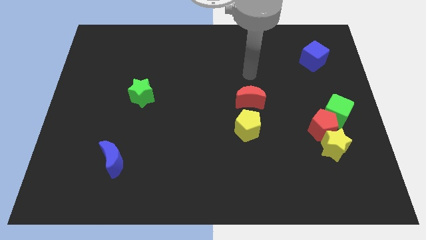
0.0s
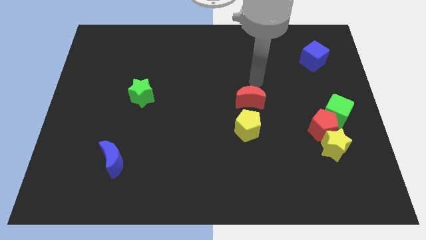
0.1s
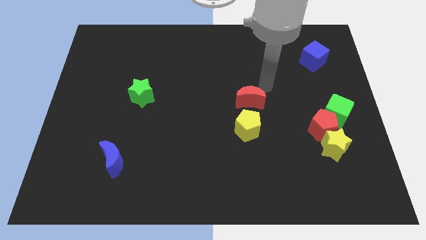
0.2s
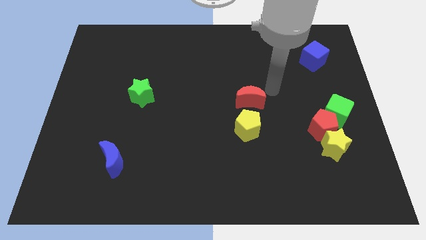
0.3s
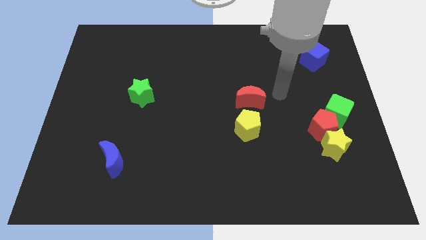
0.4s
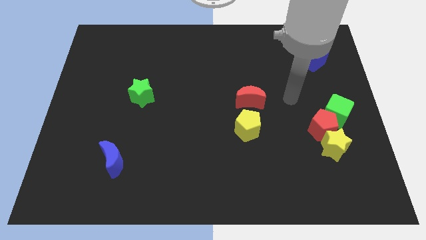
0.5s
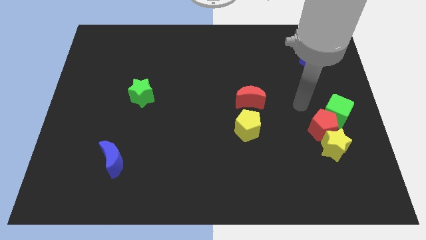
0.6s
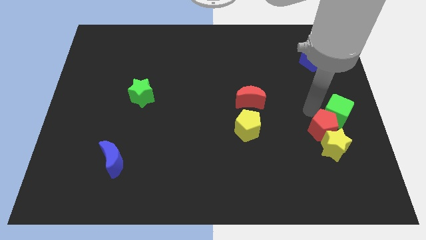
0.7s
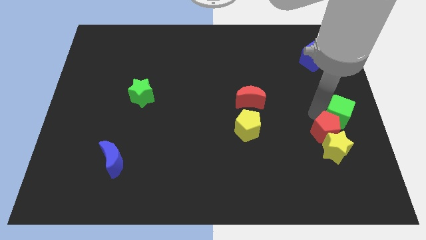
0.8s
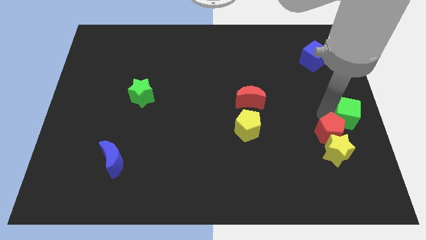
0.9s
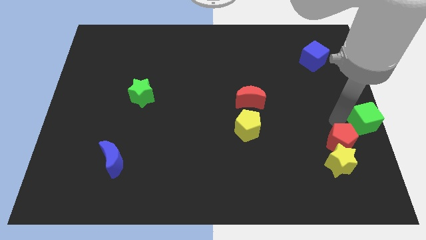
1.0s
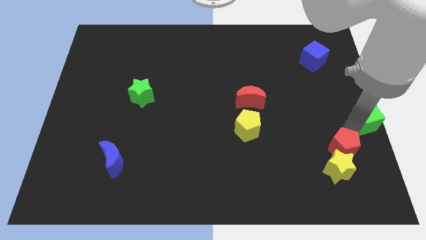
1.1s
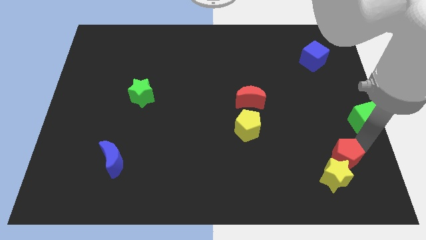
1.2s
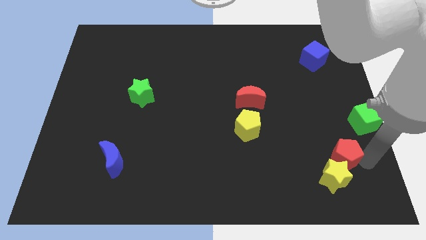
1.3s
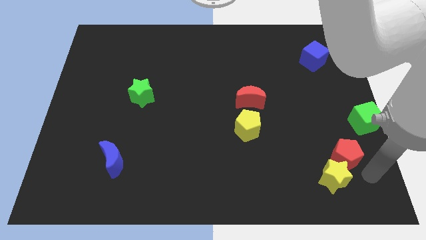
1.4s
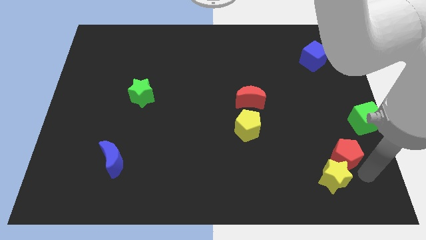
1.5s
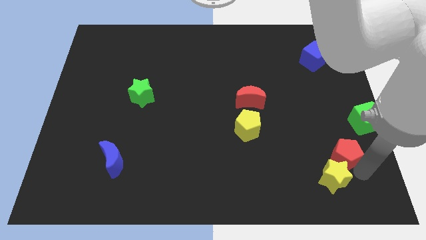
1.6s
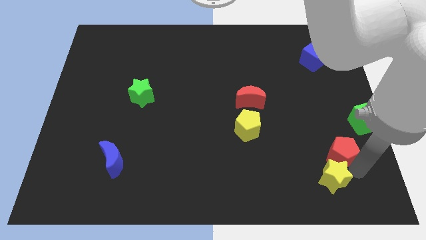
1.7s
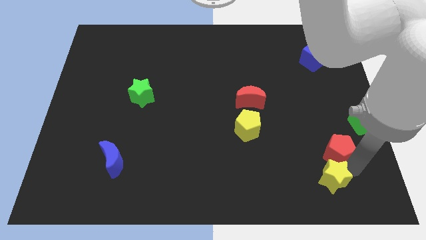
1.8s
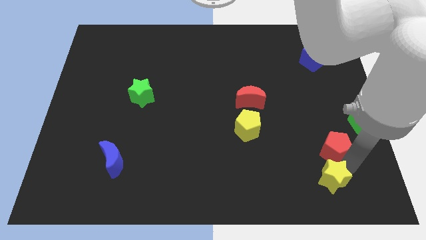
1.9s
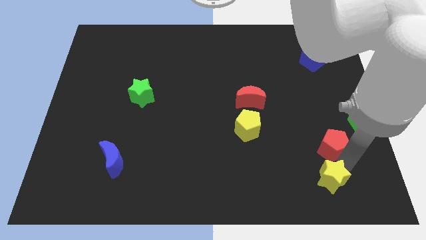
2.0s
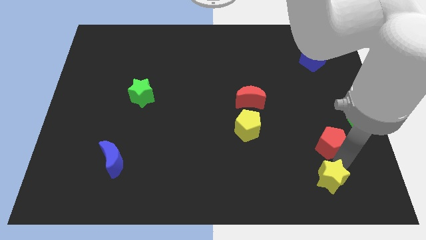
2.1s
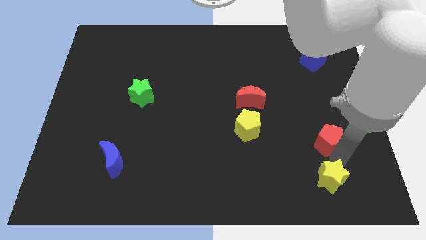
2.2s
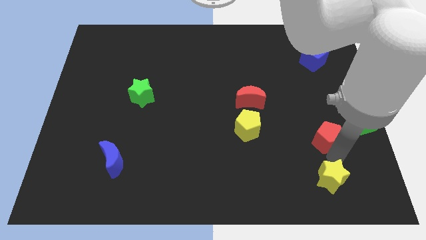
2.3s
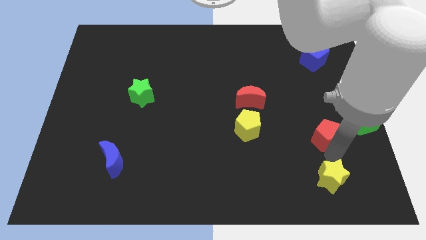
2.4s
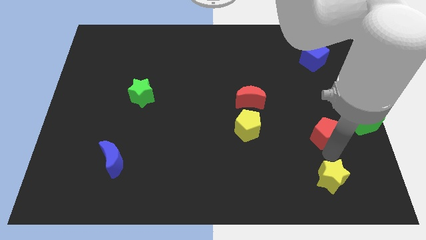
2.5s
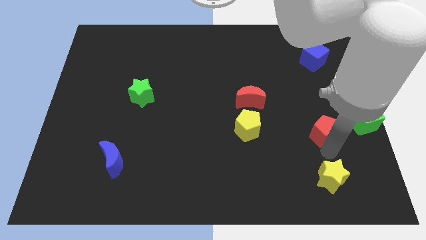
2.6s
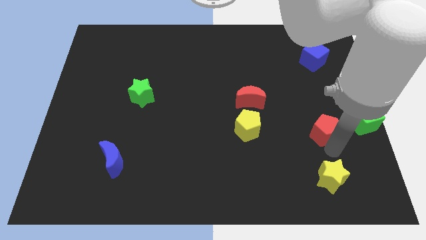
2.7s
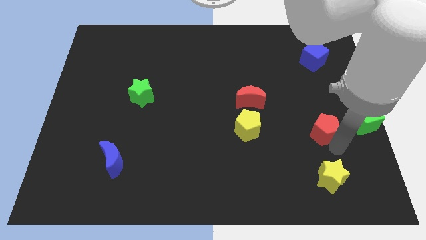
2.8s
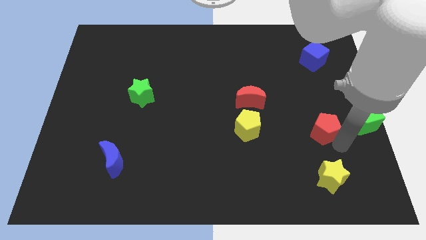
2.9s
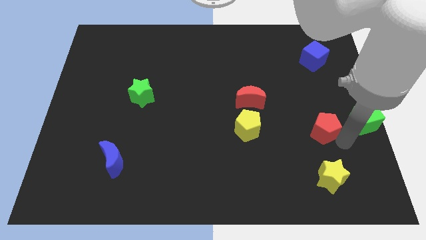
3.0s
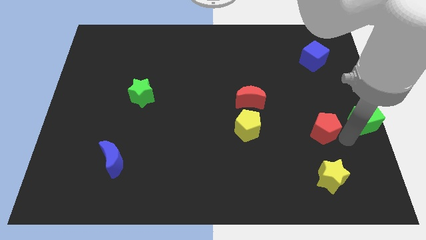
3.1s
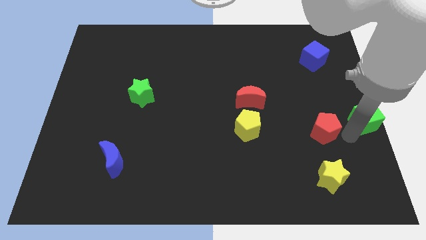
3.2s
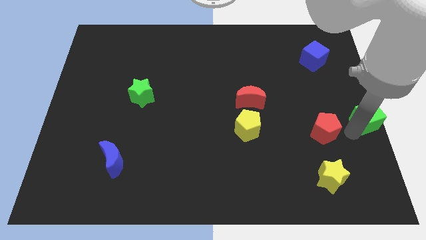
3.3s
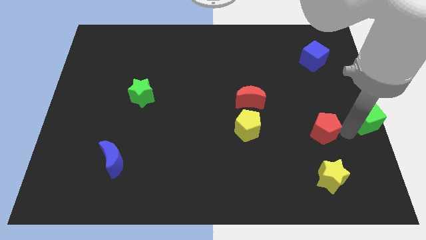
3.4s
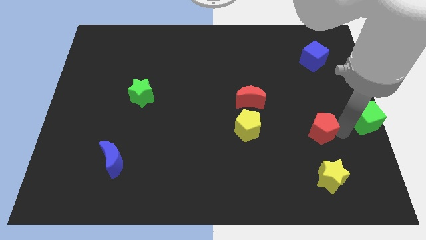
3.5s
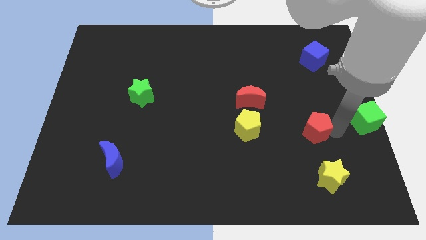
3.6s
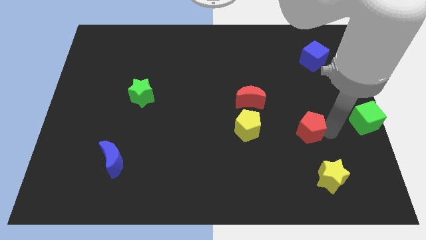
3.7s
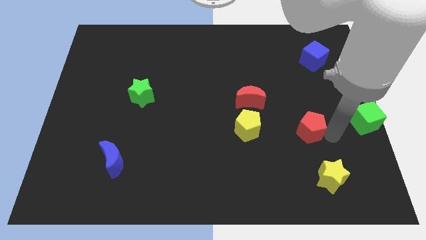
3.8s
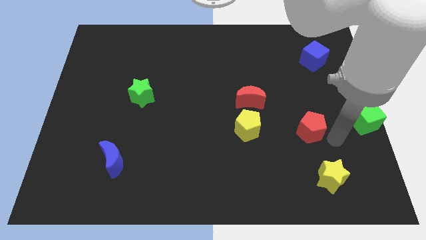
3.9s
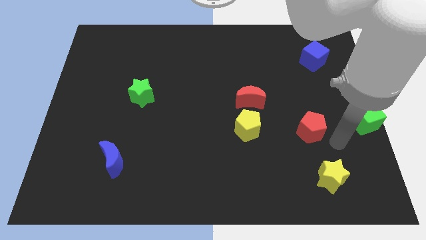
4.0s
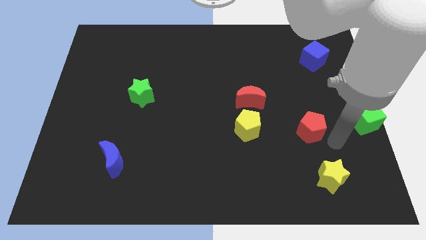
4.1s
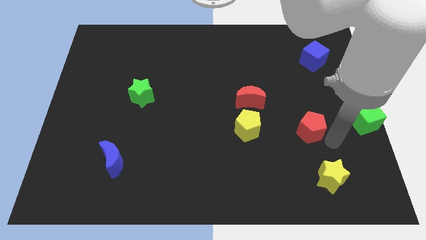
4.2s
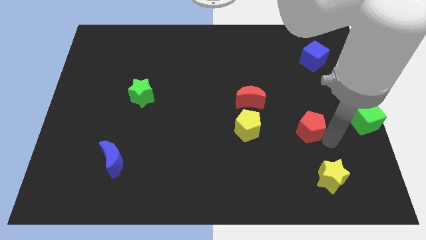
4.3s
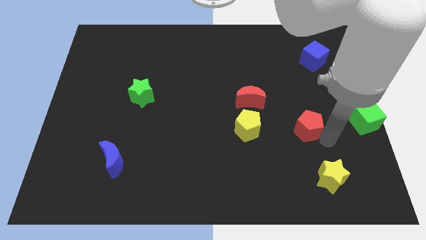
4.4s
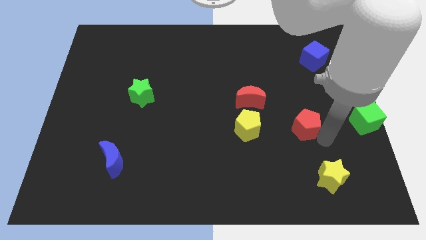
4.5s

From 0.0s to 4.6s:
pull the red pentagon apart from the yellow star and green cube

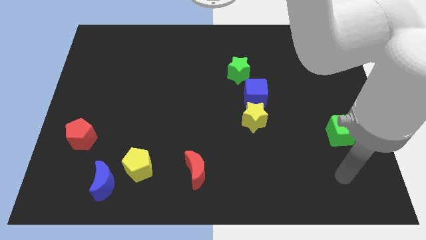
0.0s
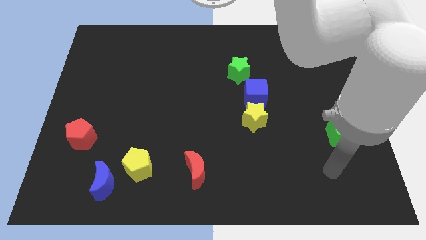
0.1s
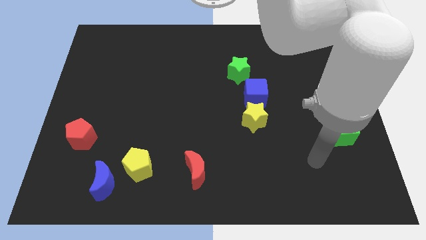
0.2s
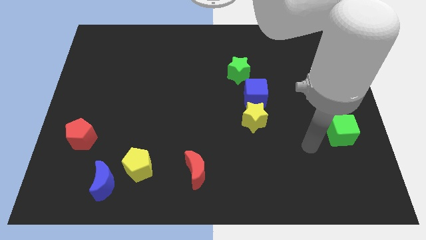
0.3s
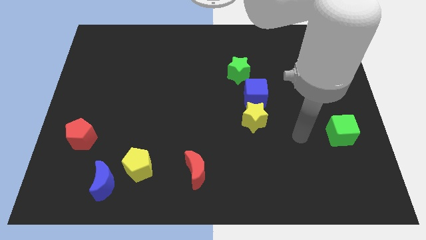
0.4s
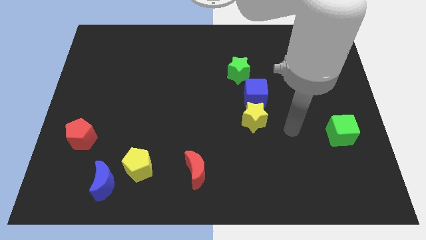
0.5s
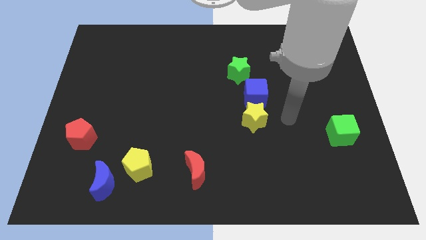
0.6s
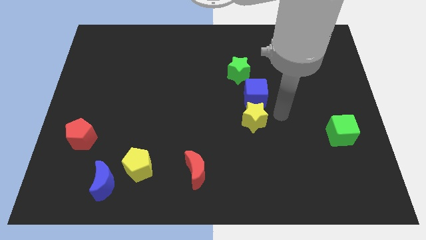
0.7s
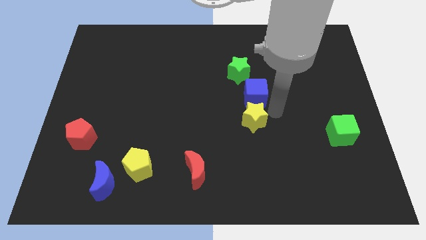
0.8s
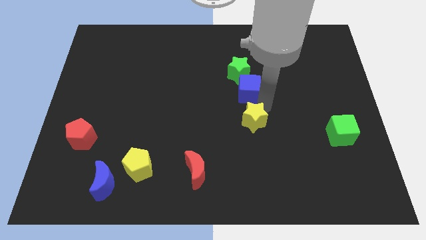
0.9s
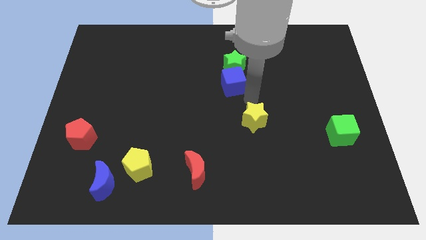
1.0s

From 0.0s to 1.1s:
separate the yellow star from the blue cube

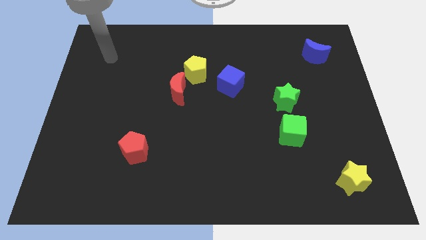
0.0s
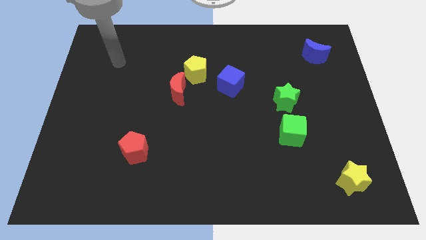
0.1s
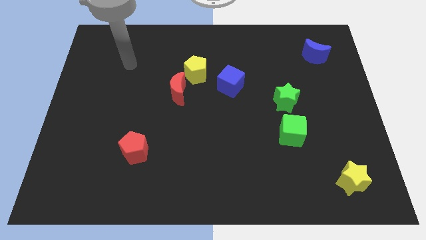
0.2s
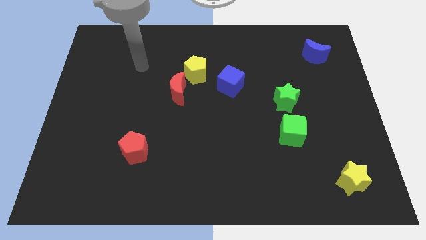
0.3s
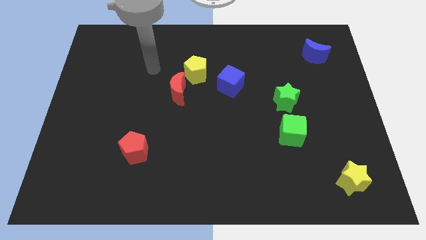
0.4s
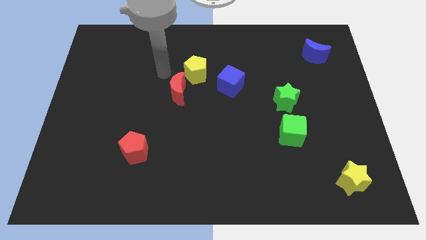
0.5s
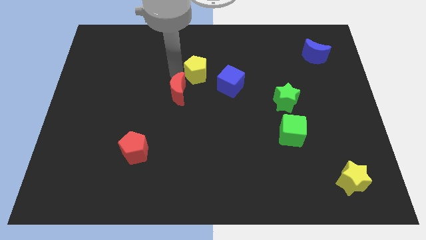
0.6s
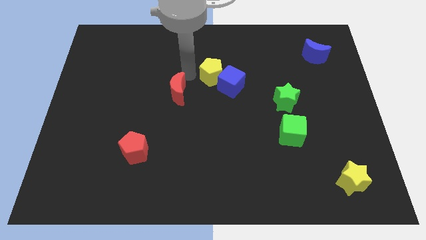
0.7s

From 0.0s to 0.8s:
separate the red moon from the yellow pentagon

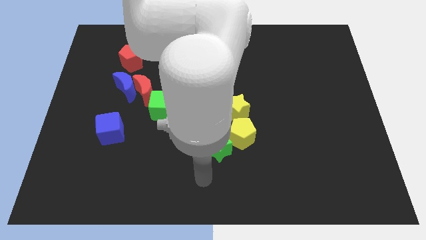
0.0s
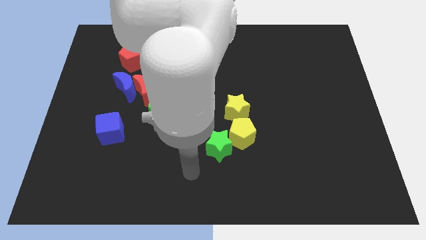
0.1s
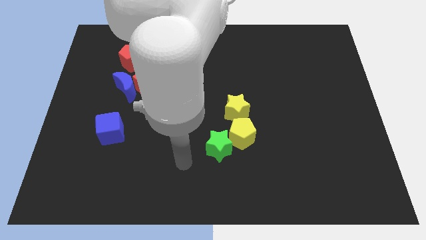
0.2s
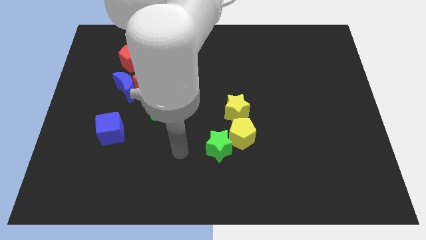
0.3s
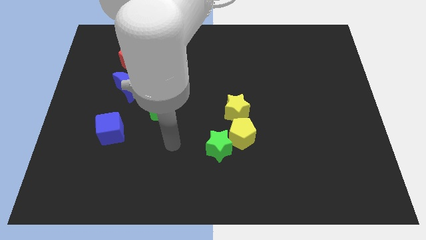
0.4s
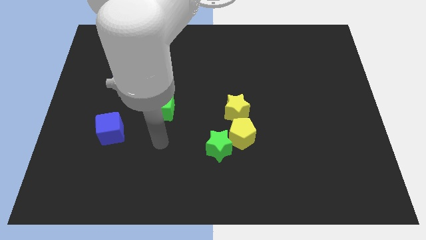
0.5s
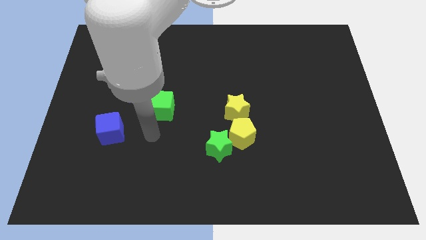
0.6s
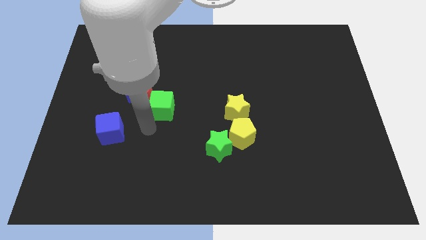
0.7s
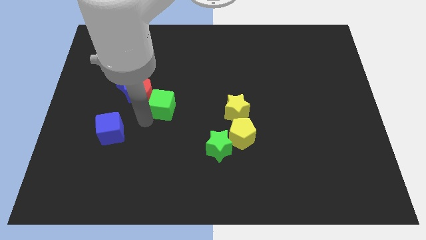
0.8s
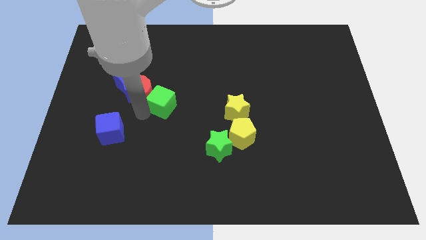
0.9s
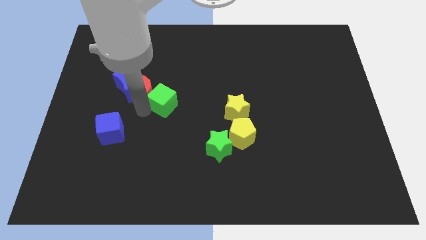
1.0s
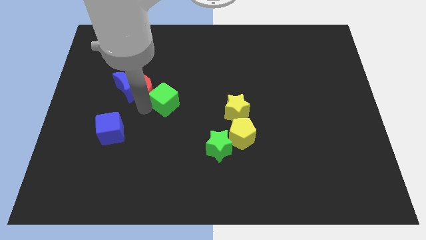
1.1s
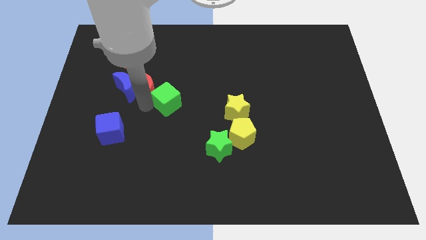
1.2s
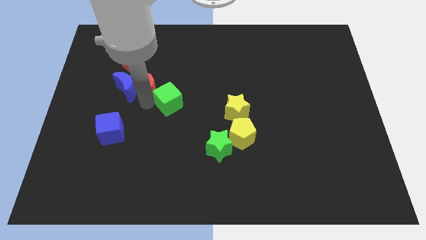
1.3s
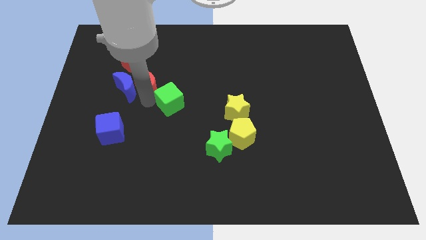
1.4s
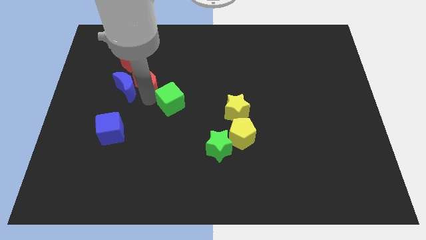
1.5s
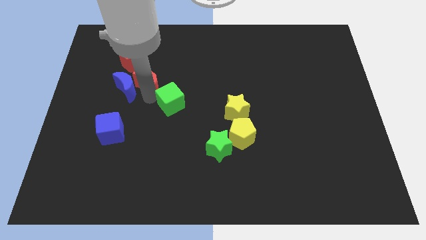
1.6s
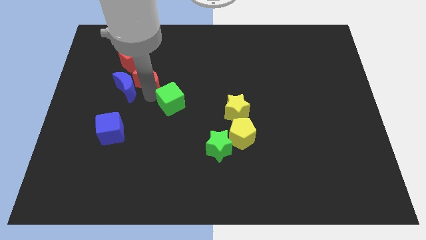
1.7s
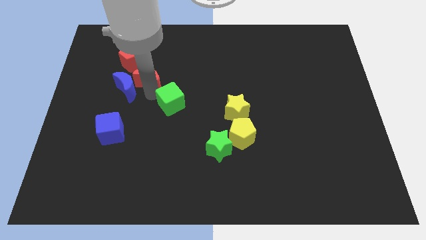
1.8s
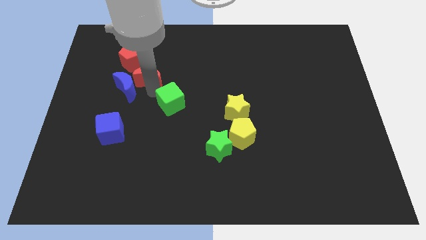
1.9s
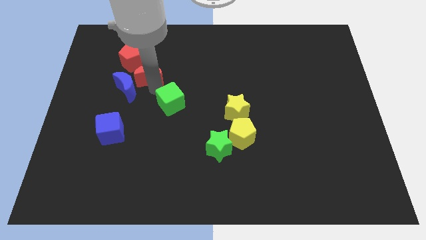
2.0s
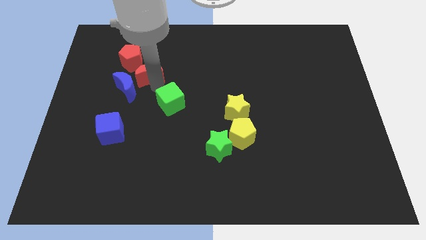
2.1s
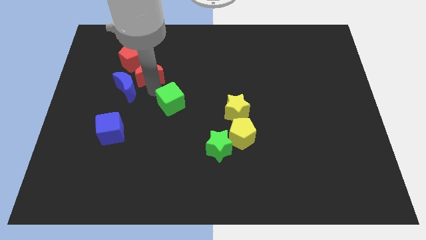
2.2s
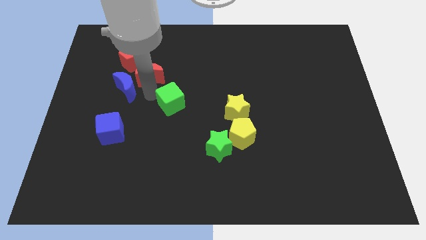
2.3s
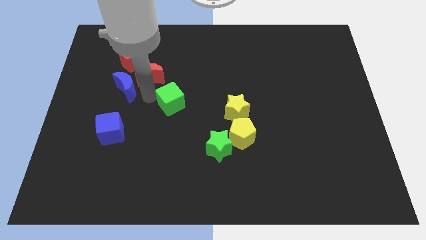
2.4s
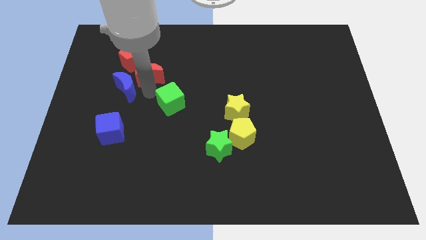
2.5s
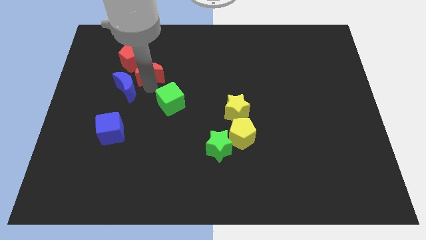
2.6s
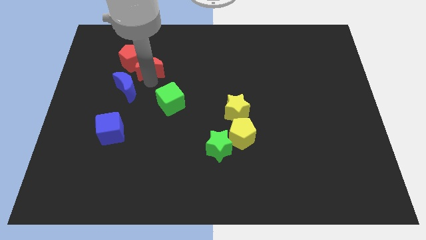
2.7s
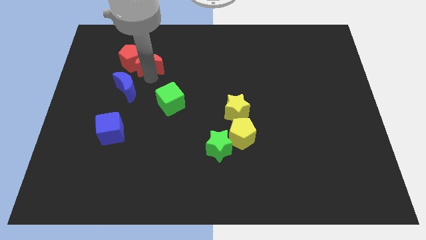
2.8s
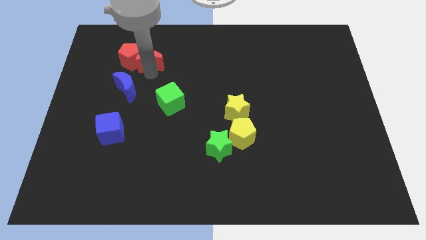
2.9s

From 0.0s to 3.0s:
separate the red moon from the blue moon and green cube
